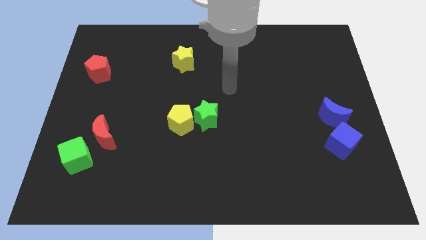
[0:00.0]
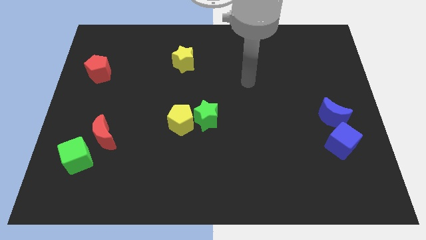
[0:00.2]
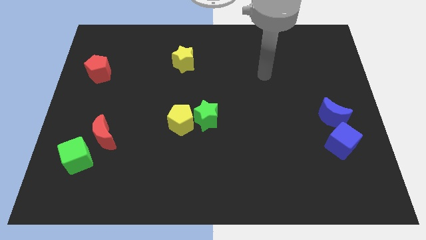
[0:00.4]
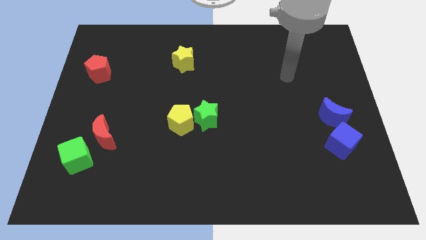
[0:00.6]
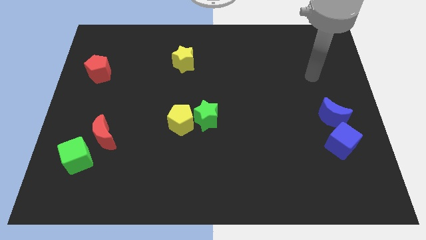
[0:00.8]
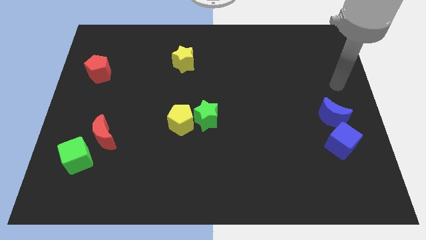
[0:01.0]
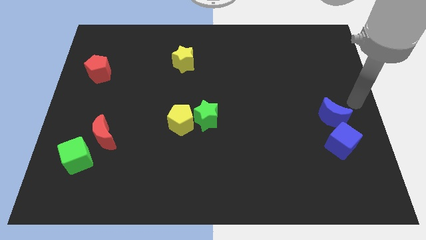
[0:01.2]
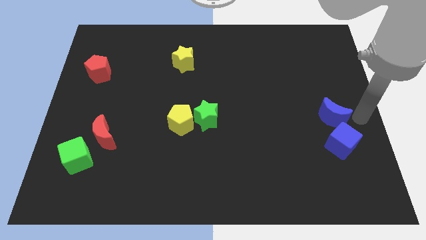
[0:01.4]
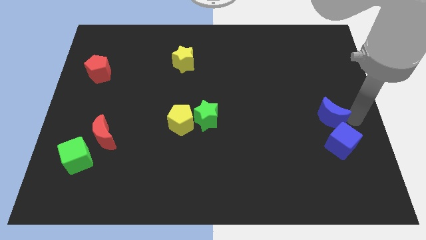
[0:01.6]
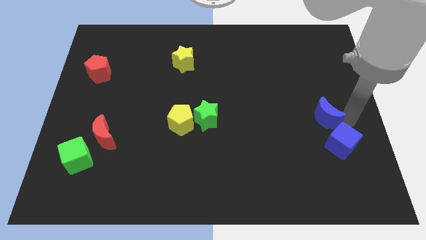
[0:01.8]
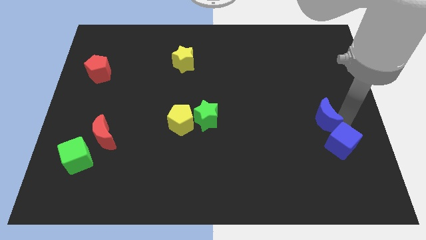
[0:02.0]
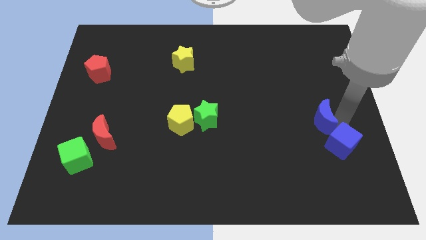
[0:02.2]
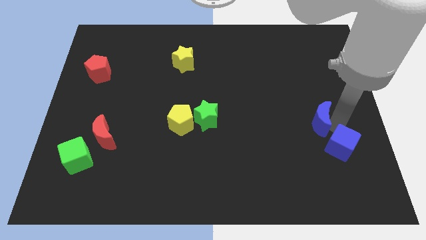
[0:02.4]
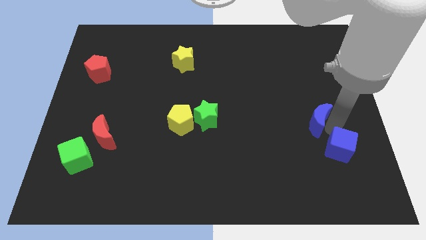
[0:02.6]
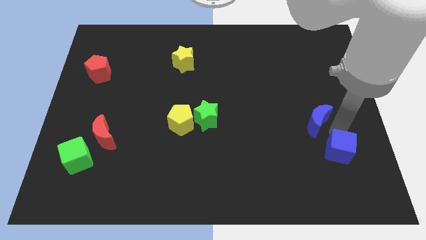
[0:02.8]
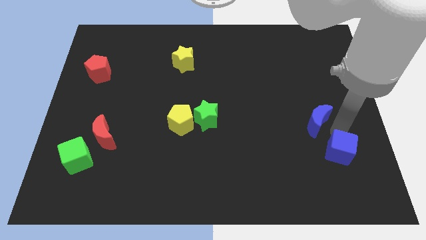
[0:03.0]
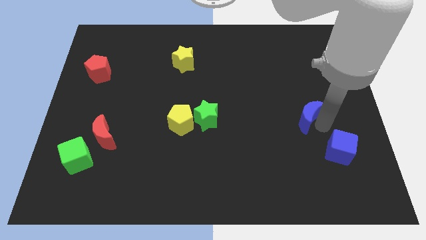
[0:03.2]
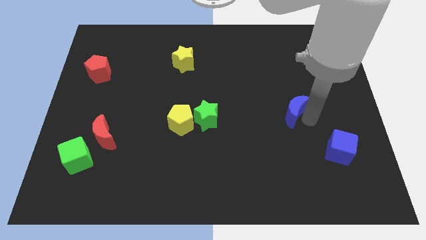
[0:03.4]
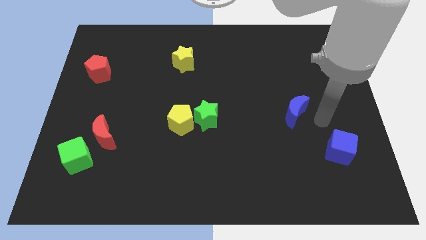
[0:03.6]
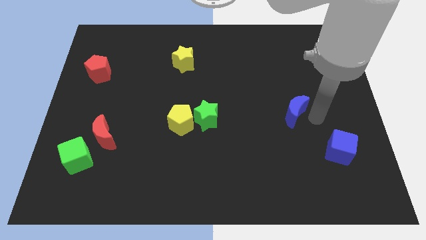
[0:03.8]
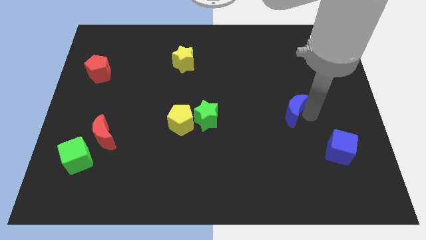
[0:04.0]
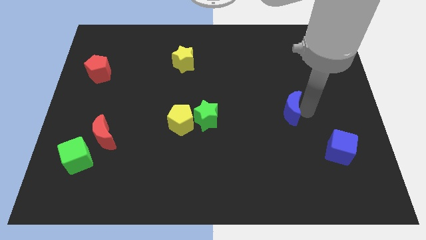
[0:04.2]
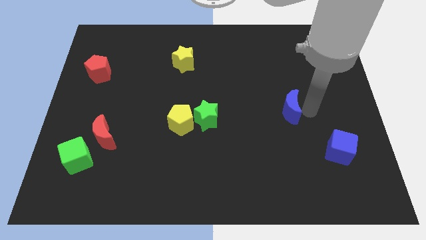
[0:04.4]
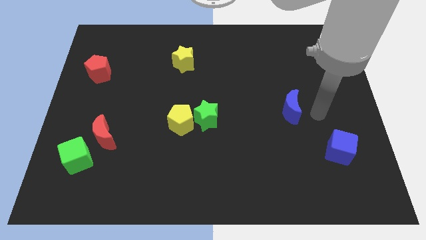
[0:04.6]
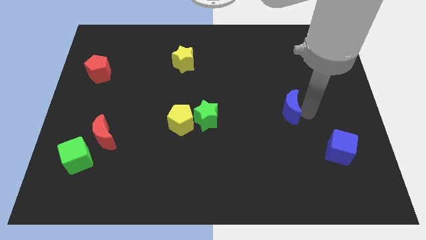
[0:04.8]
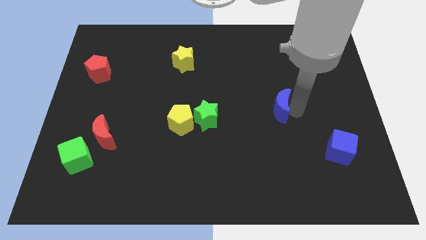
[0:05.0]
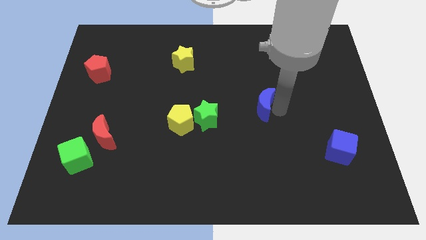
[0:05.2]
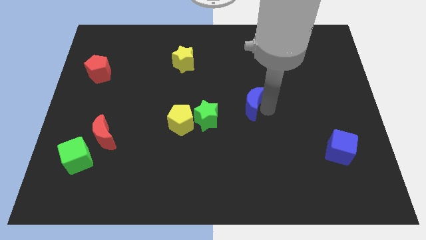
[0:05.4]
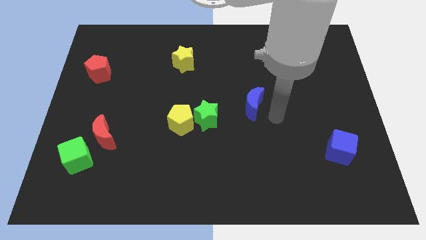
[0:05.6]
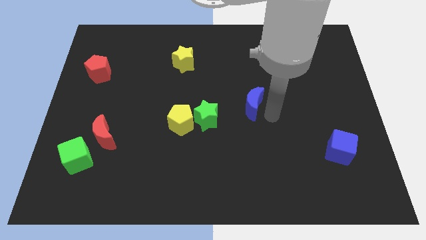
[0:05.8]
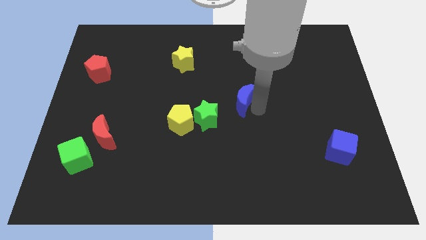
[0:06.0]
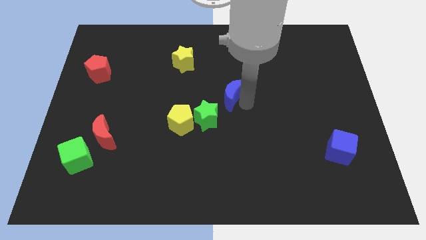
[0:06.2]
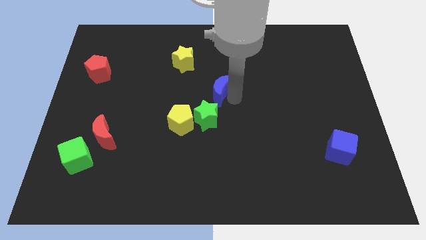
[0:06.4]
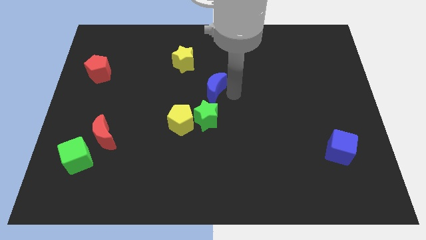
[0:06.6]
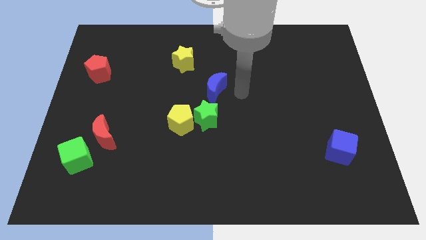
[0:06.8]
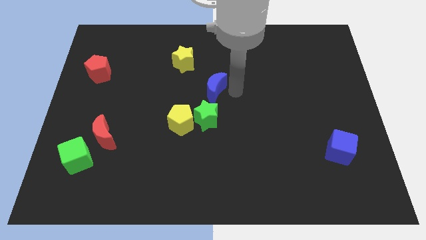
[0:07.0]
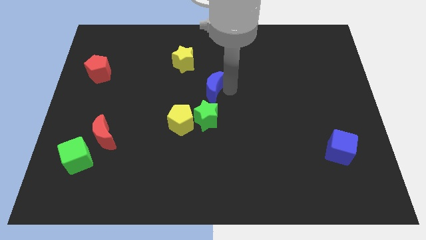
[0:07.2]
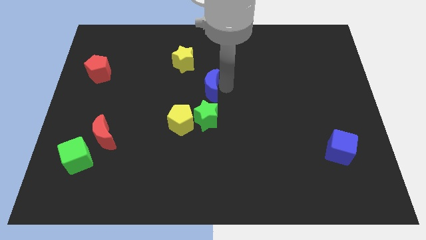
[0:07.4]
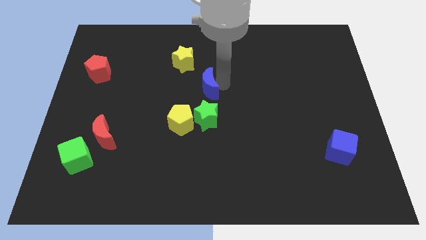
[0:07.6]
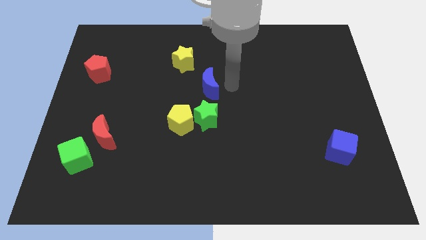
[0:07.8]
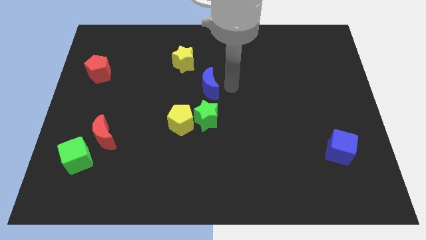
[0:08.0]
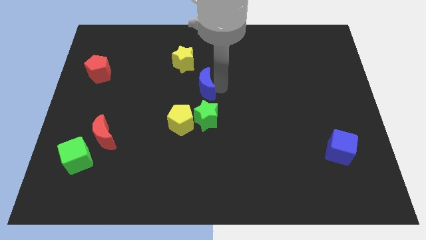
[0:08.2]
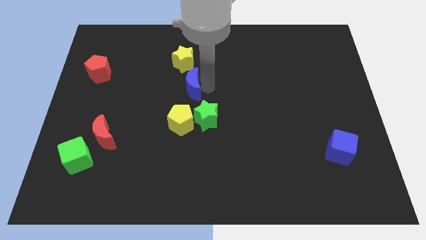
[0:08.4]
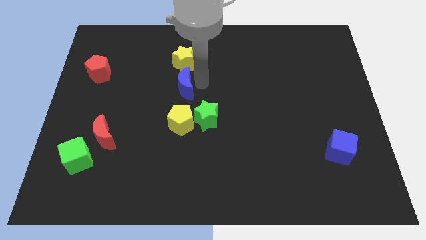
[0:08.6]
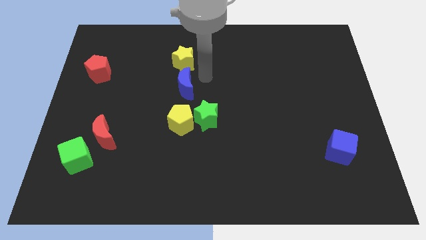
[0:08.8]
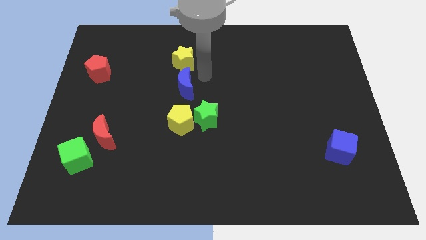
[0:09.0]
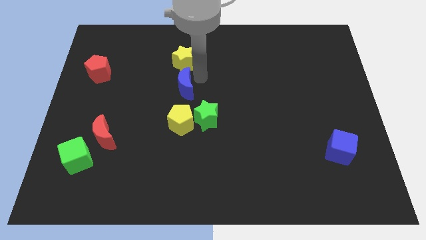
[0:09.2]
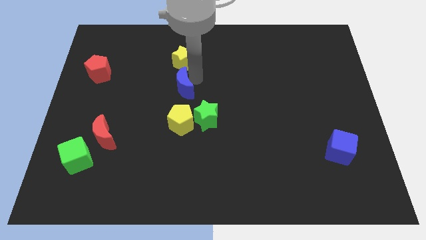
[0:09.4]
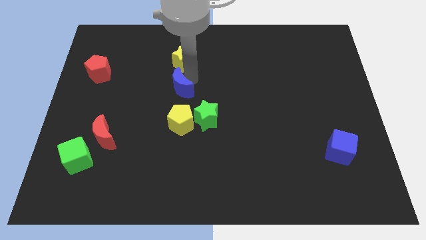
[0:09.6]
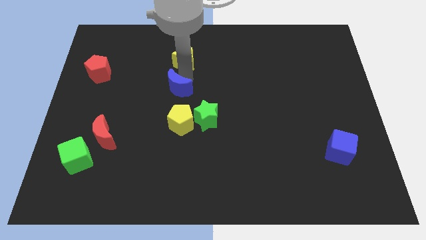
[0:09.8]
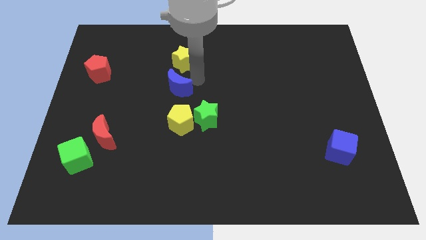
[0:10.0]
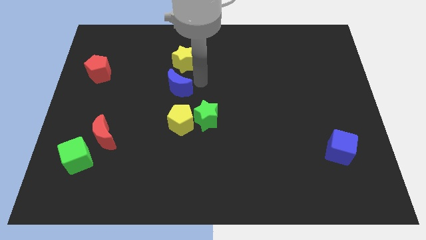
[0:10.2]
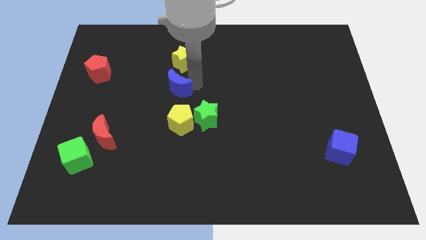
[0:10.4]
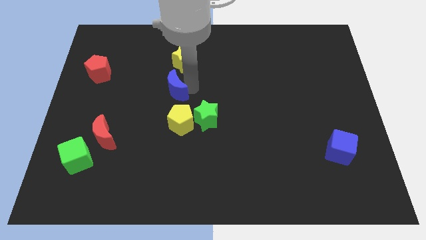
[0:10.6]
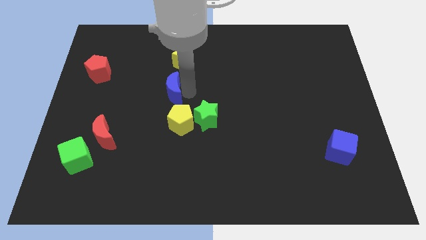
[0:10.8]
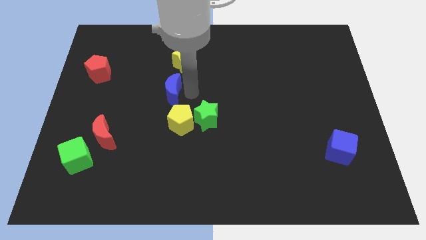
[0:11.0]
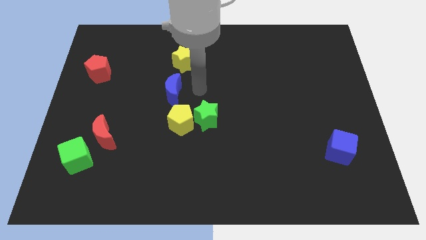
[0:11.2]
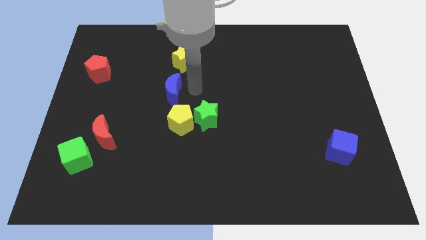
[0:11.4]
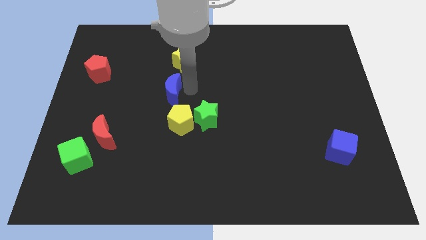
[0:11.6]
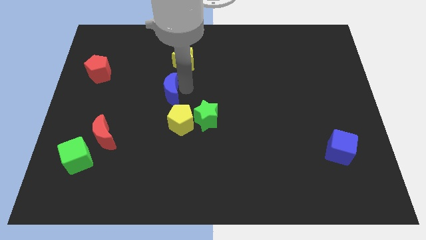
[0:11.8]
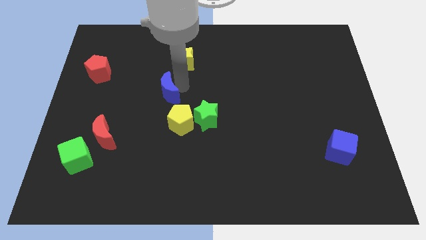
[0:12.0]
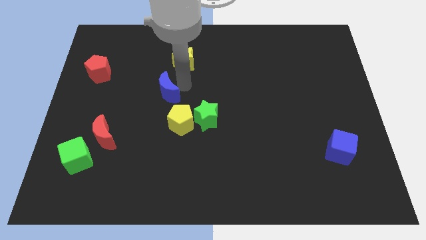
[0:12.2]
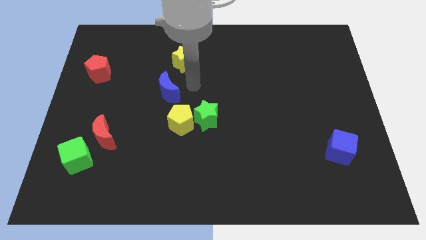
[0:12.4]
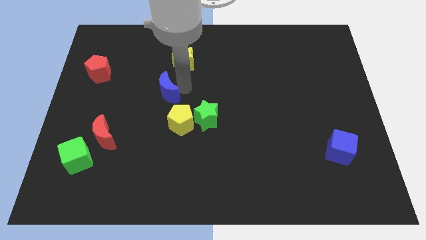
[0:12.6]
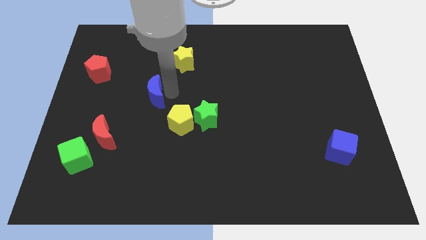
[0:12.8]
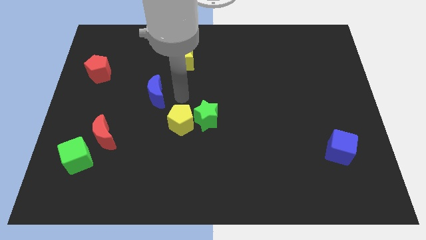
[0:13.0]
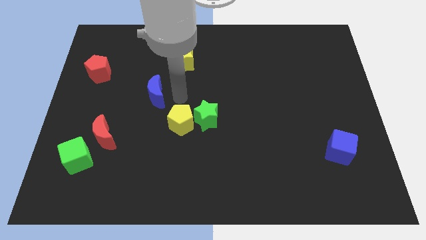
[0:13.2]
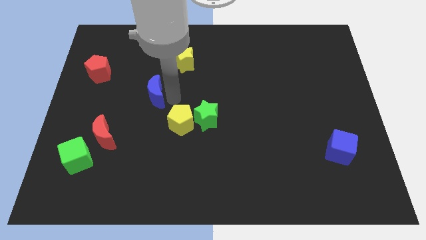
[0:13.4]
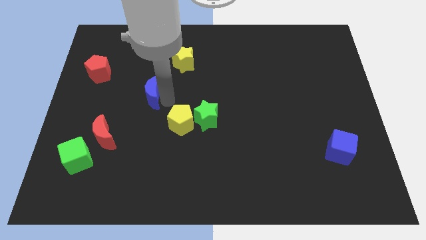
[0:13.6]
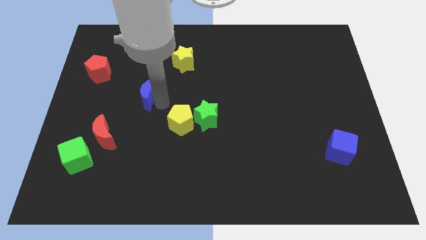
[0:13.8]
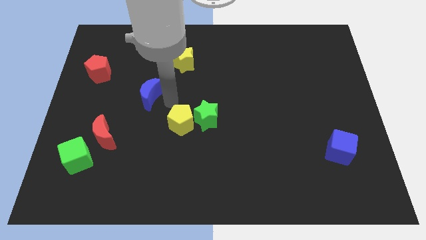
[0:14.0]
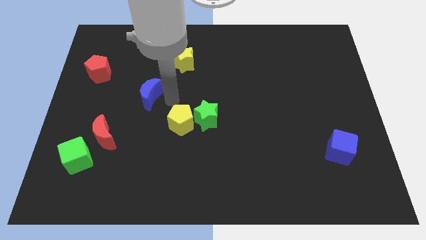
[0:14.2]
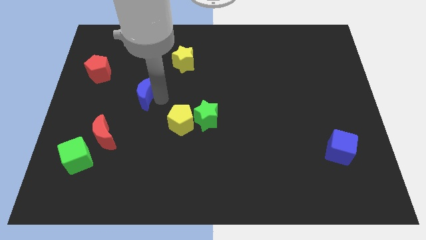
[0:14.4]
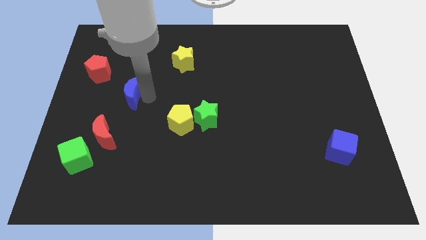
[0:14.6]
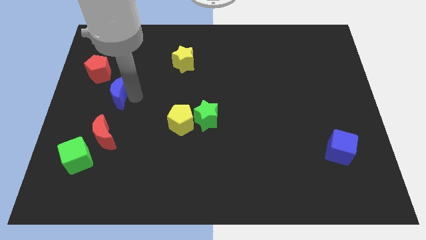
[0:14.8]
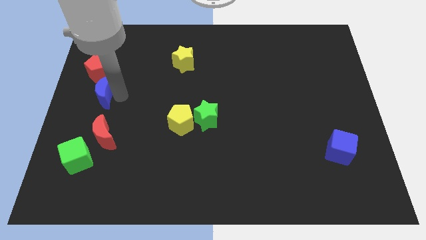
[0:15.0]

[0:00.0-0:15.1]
slide the blue moon to the left side
